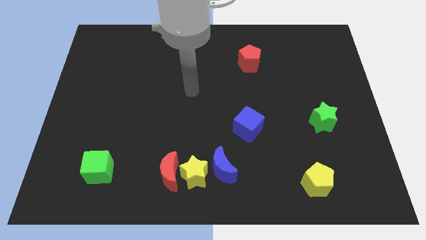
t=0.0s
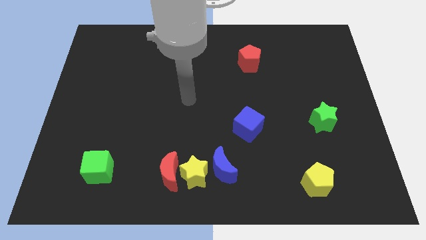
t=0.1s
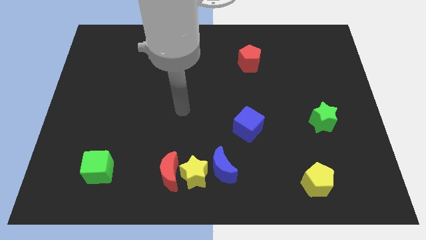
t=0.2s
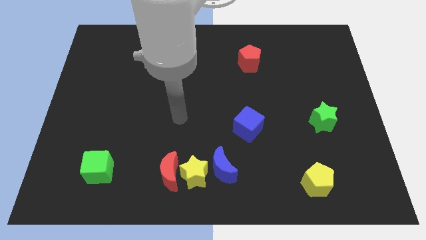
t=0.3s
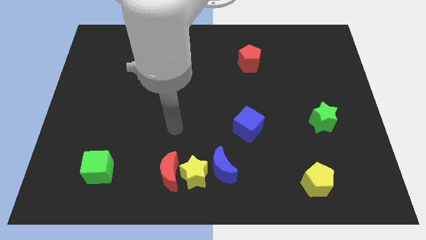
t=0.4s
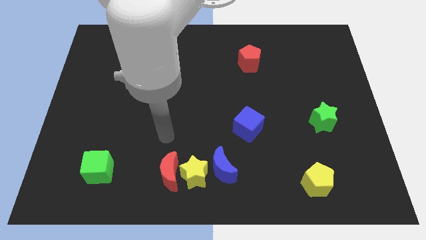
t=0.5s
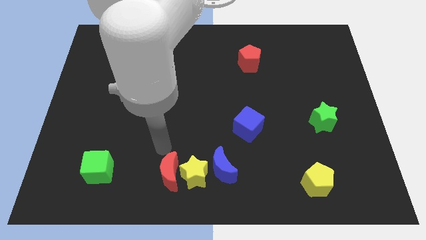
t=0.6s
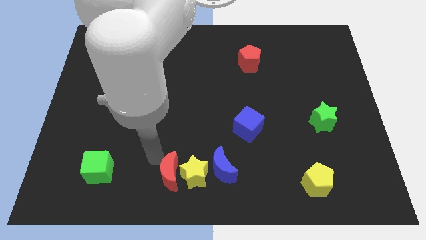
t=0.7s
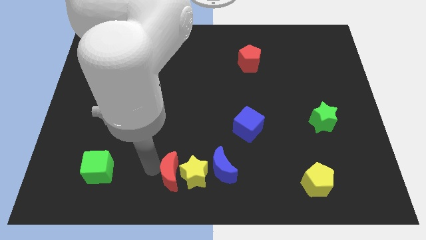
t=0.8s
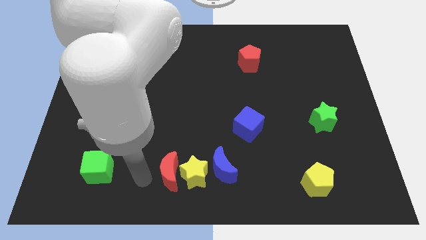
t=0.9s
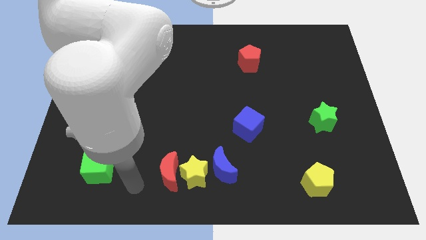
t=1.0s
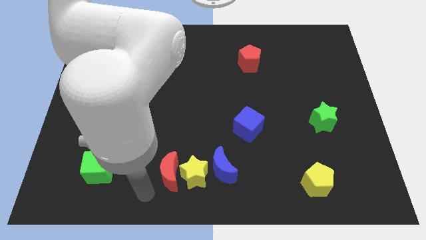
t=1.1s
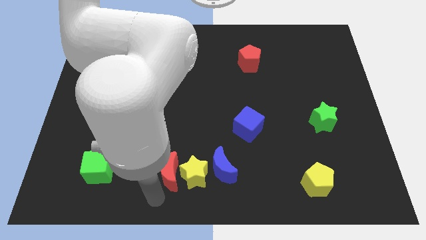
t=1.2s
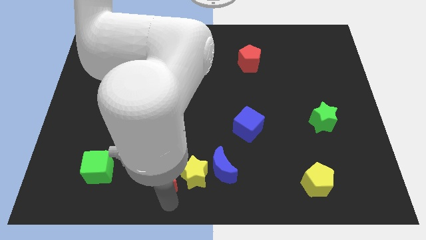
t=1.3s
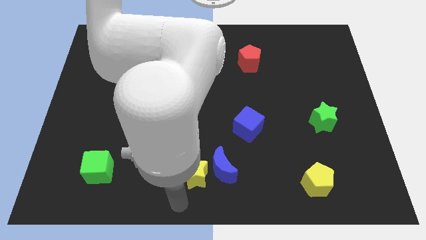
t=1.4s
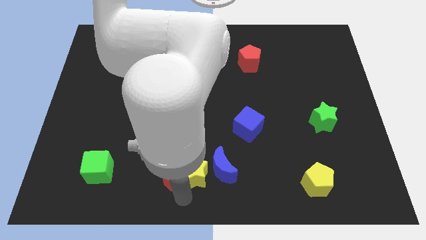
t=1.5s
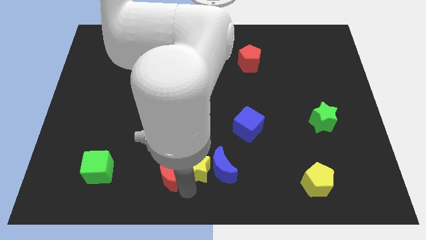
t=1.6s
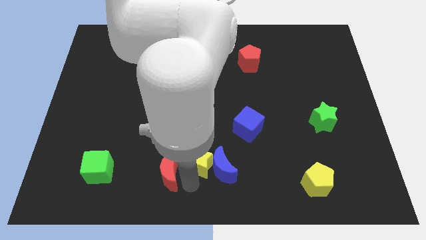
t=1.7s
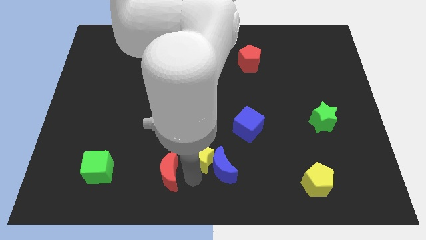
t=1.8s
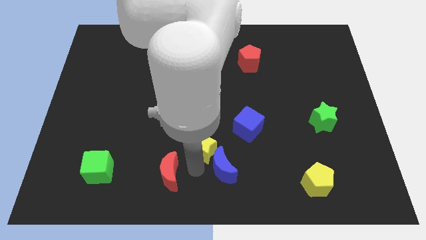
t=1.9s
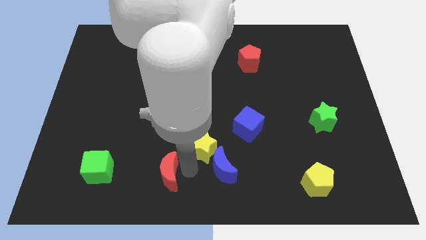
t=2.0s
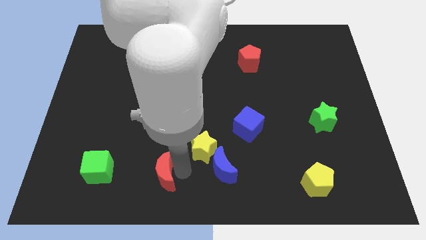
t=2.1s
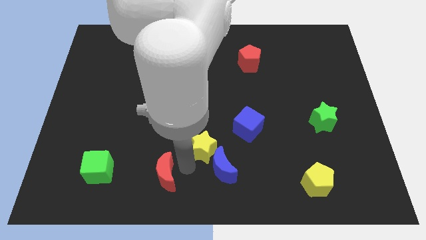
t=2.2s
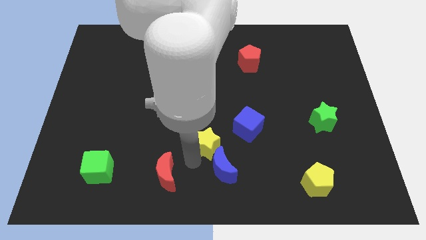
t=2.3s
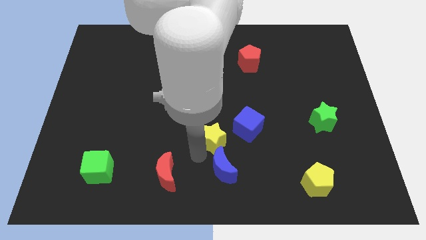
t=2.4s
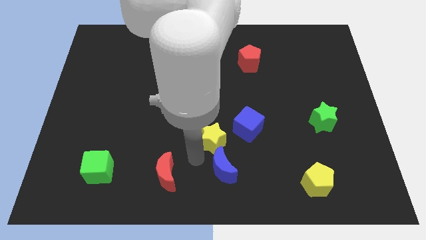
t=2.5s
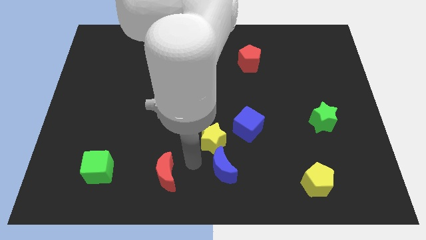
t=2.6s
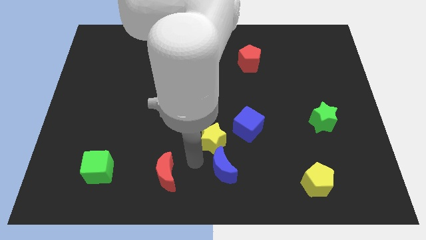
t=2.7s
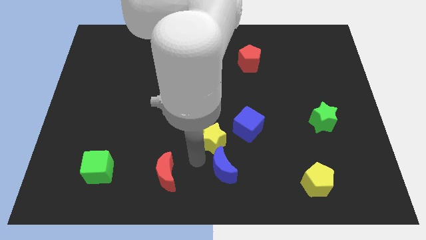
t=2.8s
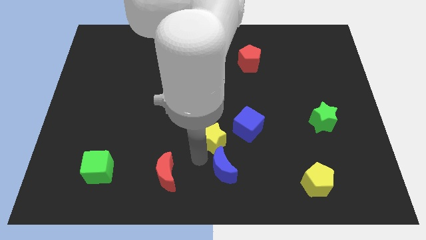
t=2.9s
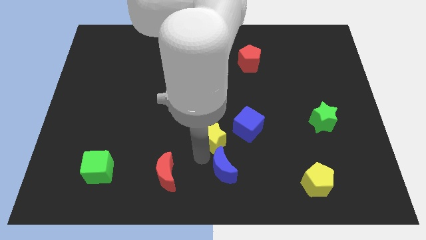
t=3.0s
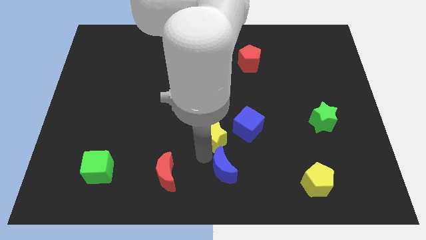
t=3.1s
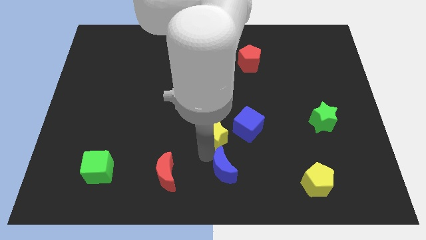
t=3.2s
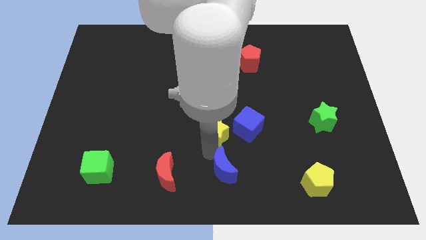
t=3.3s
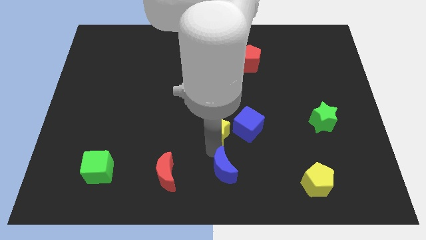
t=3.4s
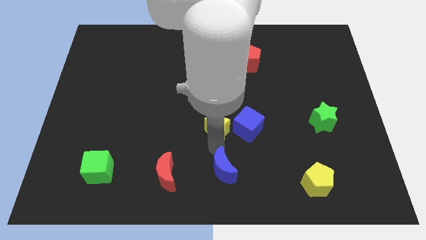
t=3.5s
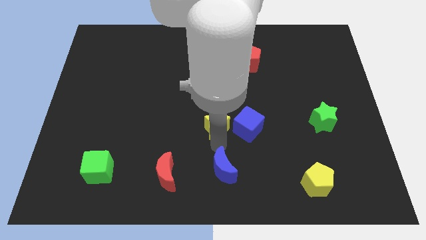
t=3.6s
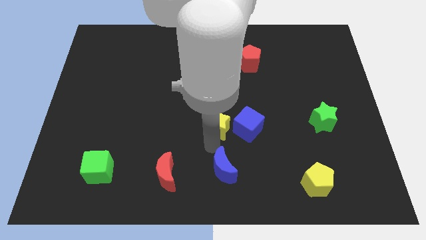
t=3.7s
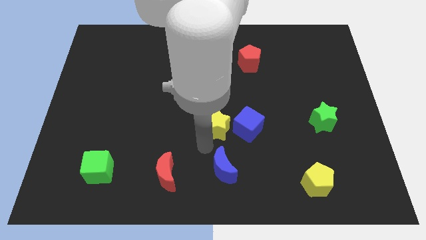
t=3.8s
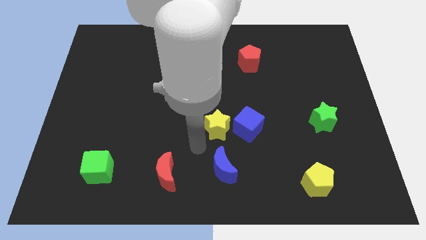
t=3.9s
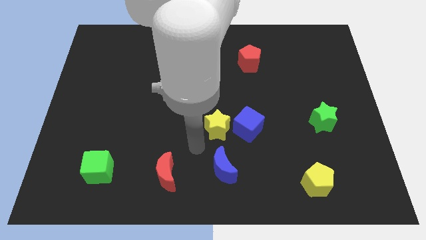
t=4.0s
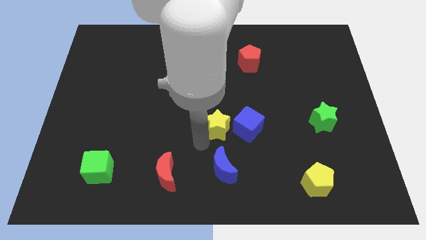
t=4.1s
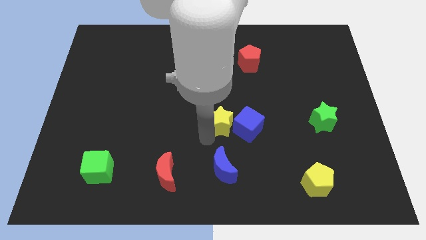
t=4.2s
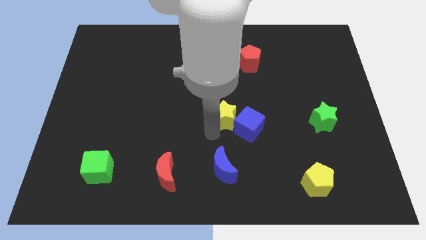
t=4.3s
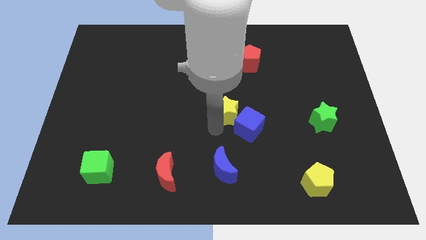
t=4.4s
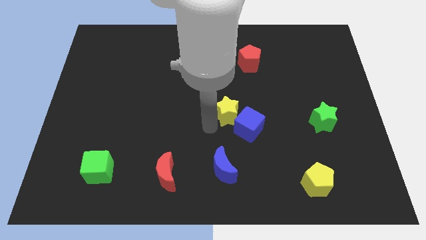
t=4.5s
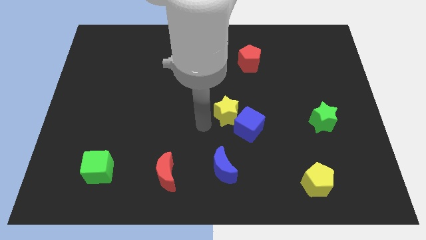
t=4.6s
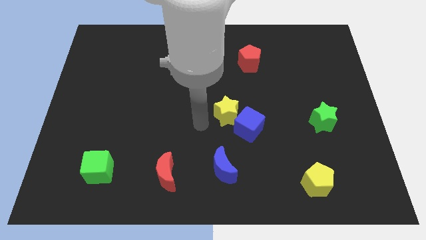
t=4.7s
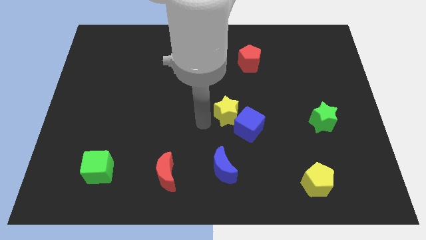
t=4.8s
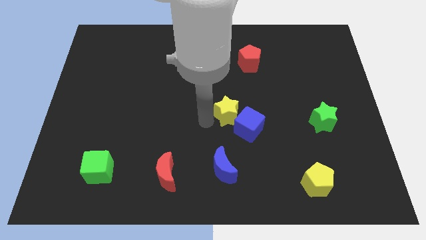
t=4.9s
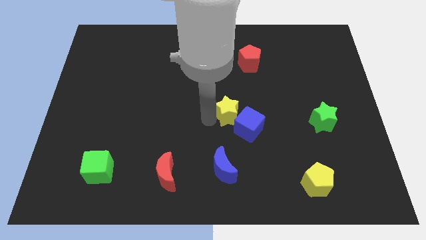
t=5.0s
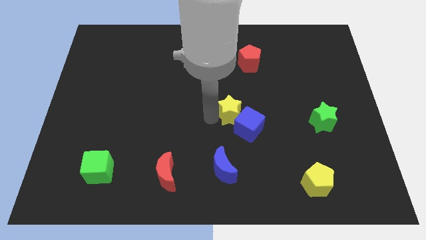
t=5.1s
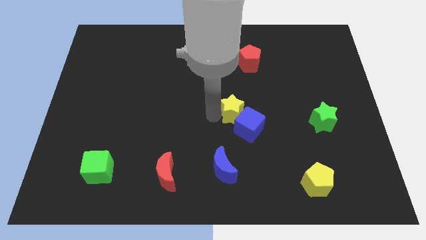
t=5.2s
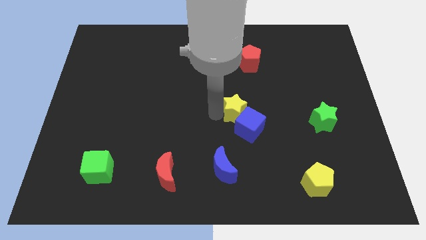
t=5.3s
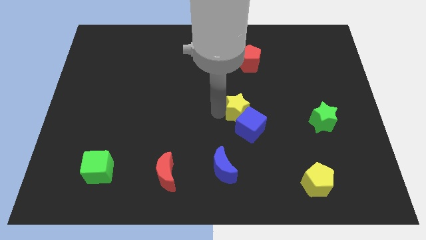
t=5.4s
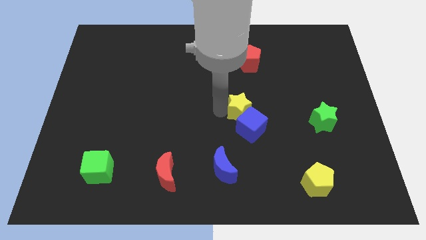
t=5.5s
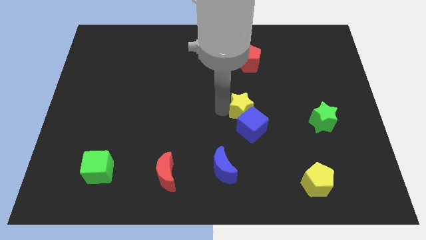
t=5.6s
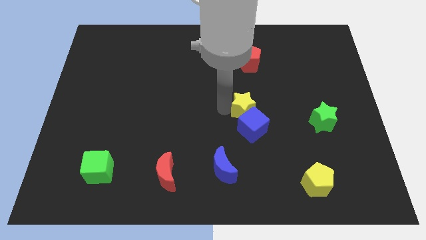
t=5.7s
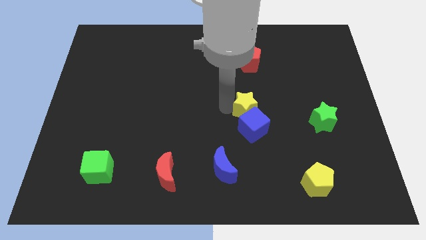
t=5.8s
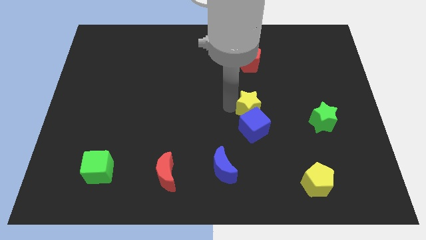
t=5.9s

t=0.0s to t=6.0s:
slide the yellow star diagonally upwards and to the right

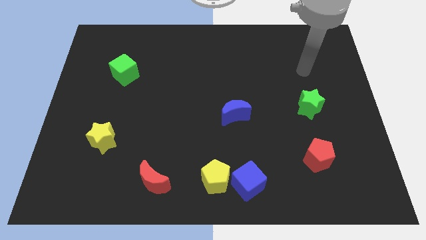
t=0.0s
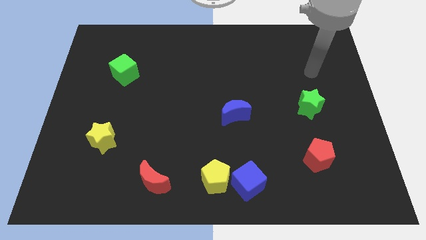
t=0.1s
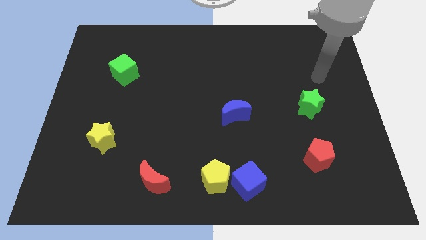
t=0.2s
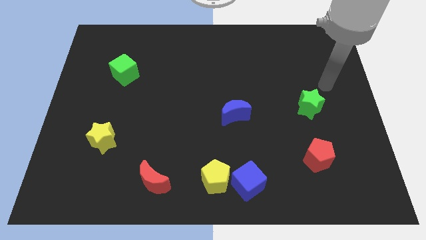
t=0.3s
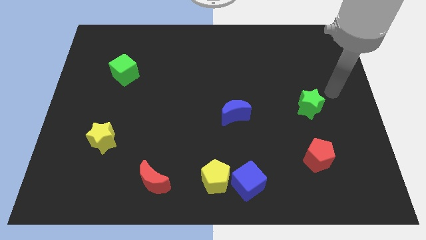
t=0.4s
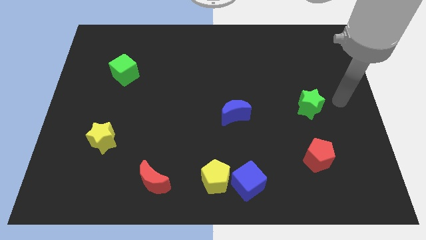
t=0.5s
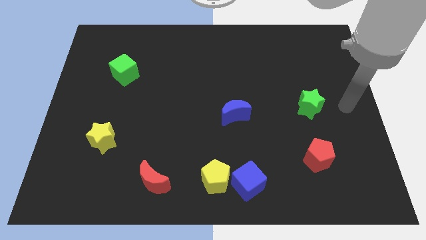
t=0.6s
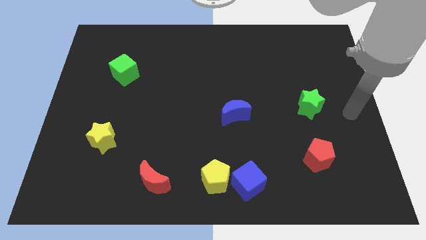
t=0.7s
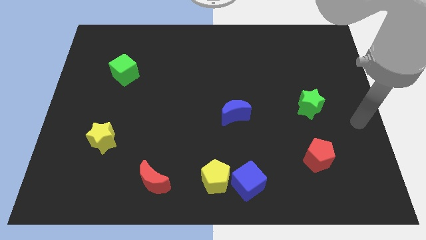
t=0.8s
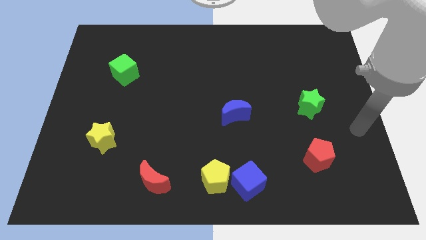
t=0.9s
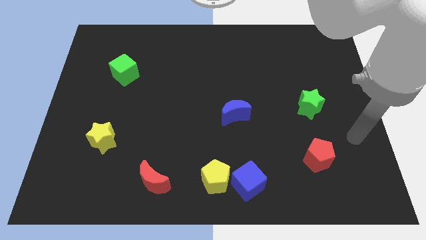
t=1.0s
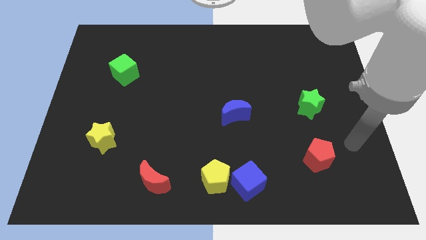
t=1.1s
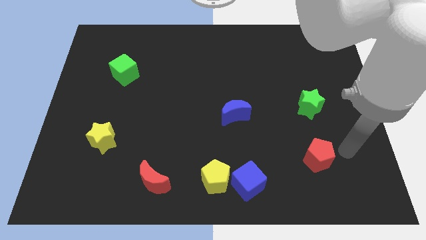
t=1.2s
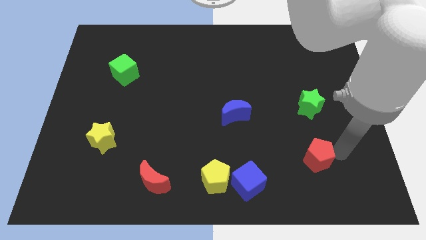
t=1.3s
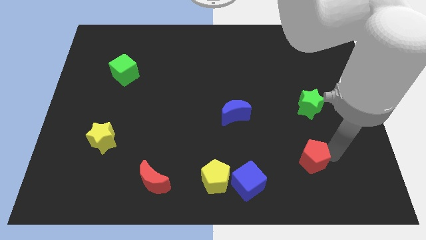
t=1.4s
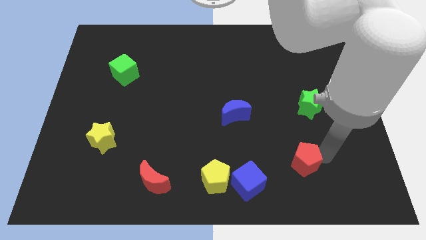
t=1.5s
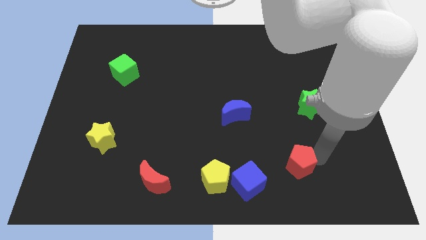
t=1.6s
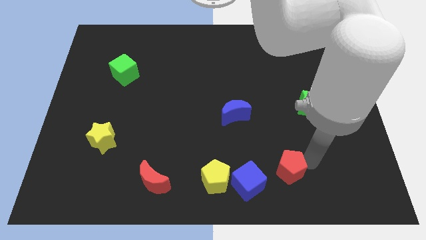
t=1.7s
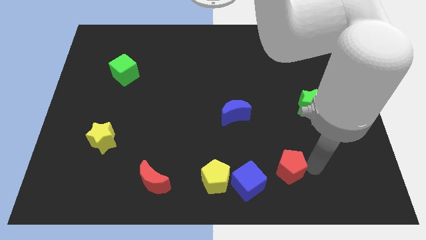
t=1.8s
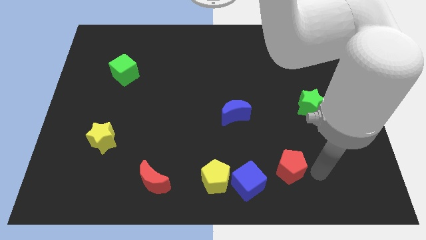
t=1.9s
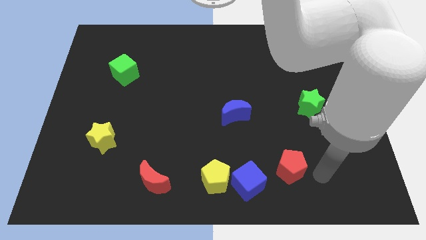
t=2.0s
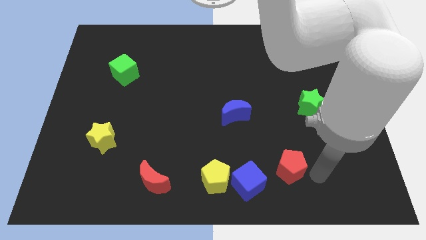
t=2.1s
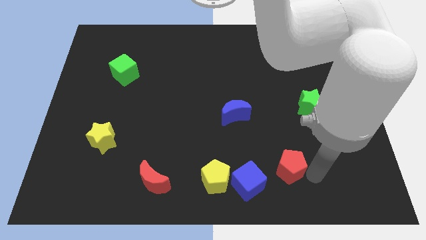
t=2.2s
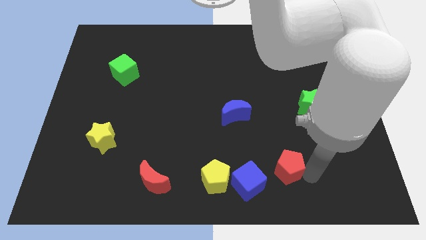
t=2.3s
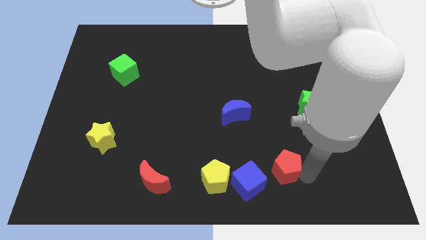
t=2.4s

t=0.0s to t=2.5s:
slightly move the red pentagon left
